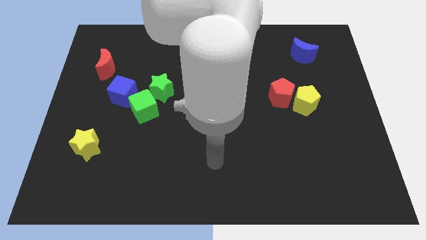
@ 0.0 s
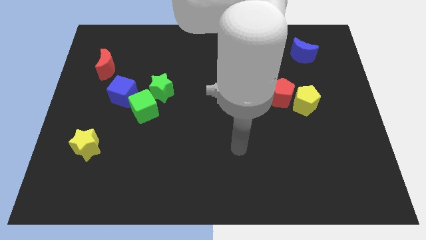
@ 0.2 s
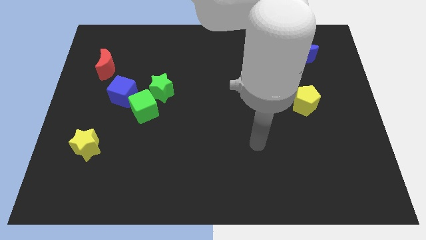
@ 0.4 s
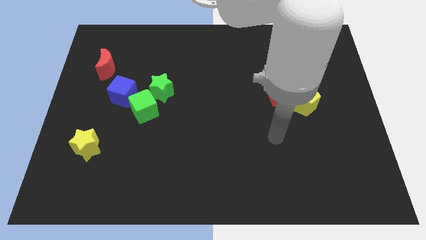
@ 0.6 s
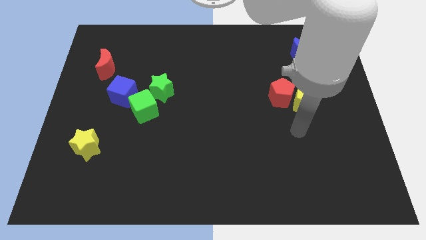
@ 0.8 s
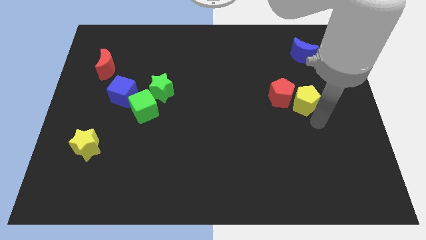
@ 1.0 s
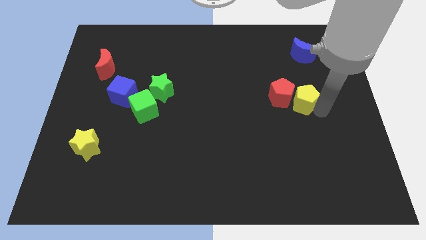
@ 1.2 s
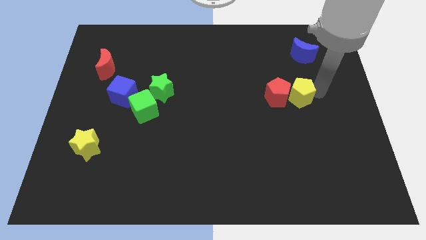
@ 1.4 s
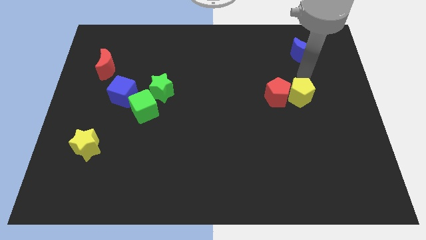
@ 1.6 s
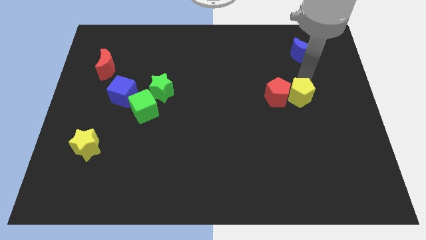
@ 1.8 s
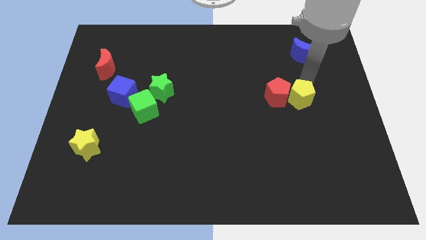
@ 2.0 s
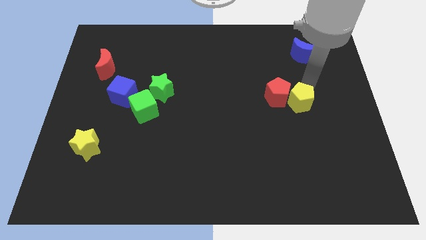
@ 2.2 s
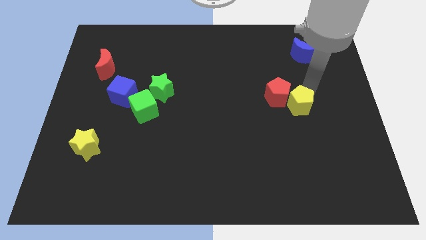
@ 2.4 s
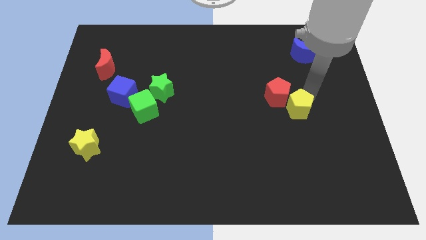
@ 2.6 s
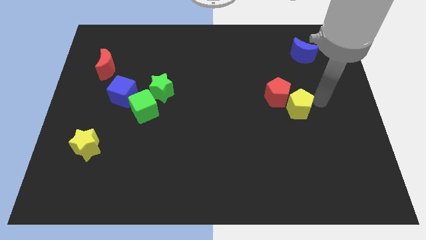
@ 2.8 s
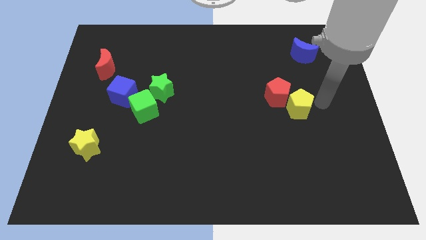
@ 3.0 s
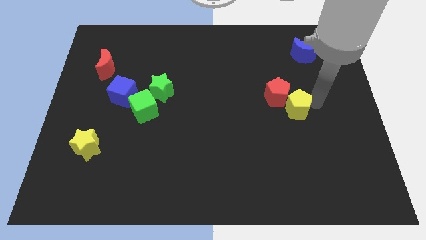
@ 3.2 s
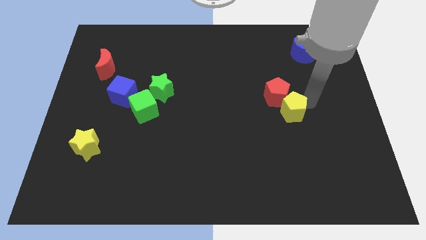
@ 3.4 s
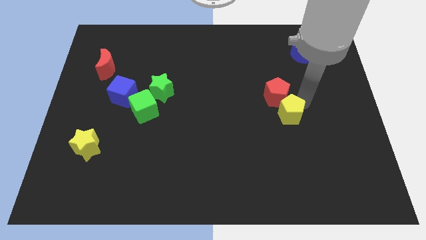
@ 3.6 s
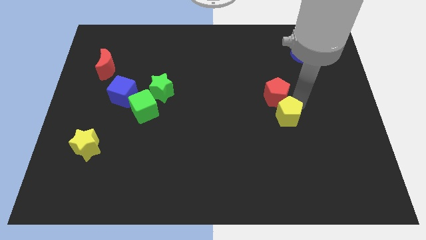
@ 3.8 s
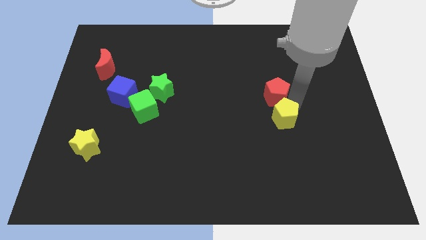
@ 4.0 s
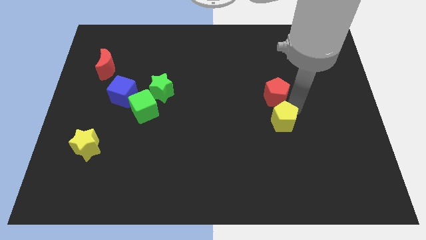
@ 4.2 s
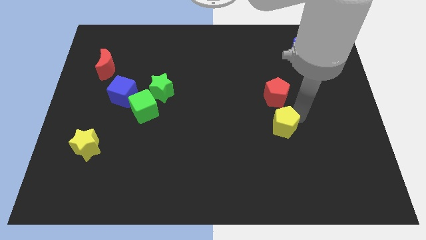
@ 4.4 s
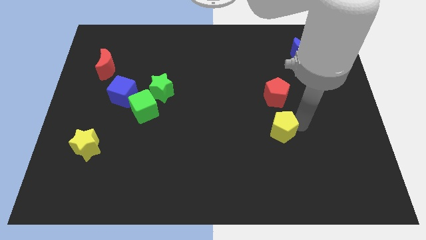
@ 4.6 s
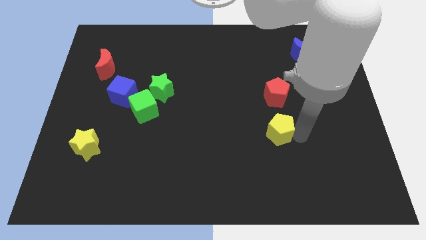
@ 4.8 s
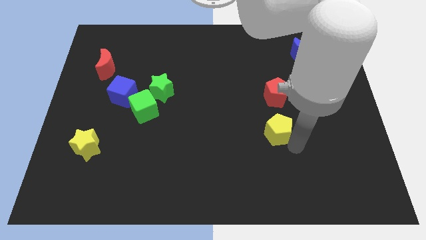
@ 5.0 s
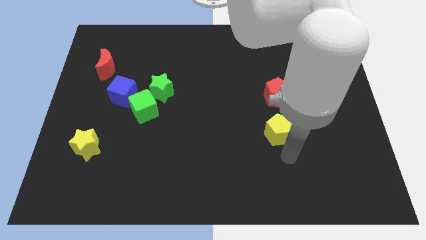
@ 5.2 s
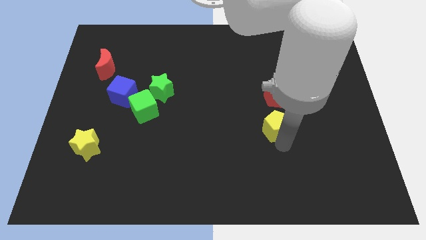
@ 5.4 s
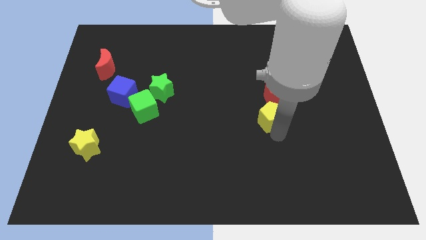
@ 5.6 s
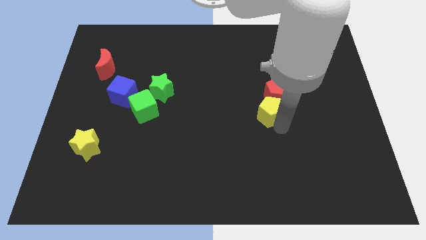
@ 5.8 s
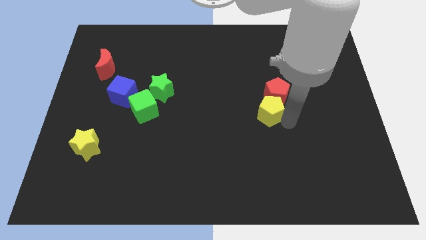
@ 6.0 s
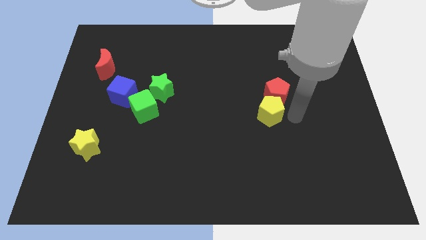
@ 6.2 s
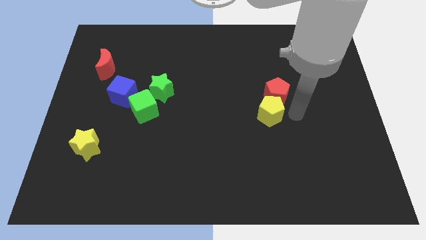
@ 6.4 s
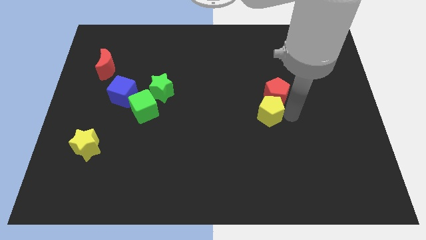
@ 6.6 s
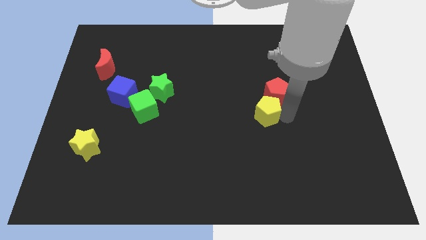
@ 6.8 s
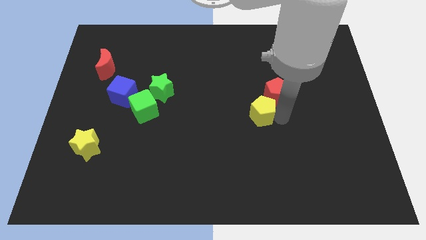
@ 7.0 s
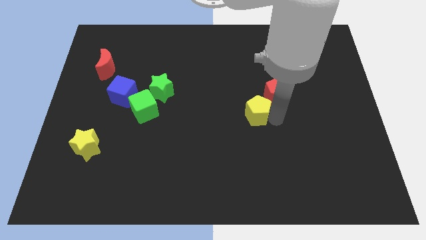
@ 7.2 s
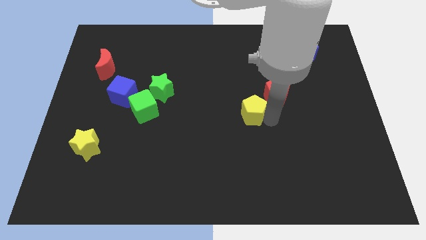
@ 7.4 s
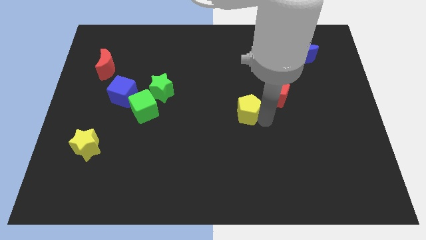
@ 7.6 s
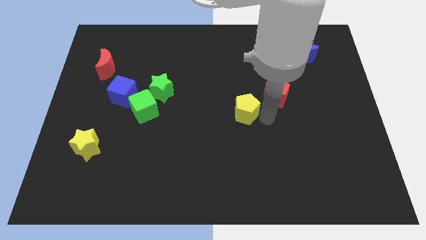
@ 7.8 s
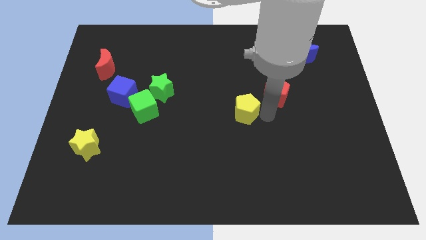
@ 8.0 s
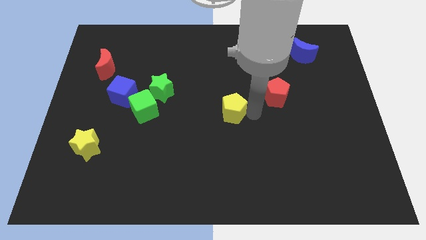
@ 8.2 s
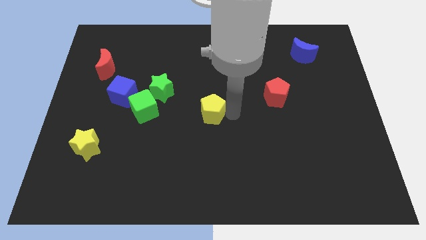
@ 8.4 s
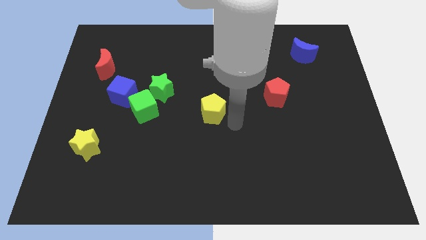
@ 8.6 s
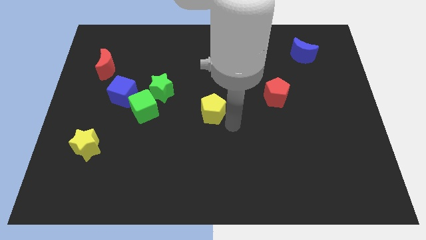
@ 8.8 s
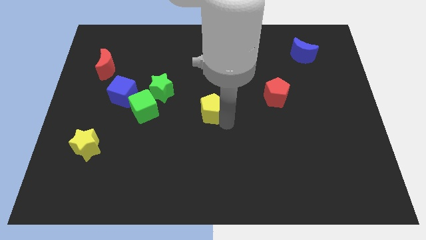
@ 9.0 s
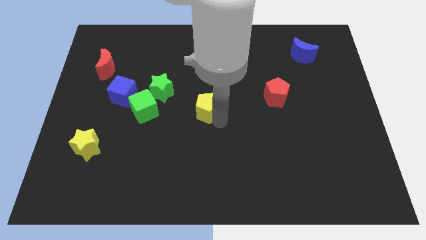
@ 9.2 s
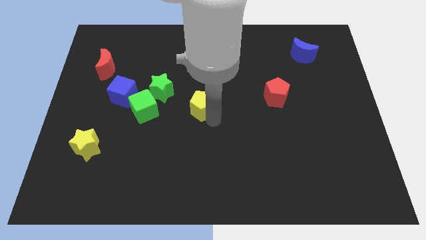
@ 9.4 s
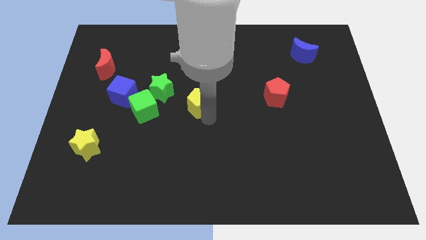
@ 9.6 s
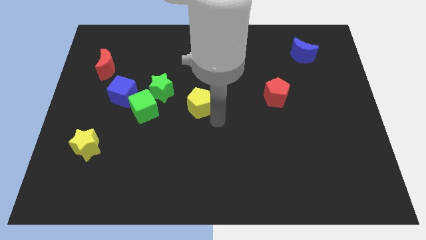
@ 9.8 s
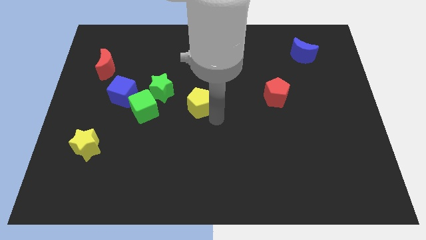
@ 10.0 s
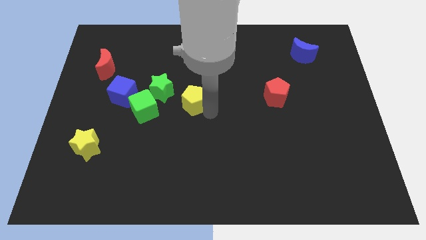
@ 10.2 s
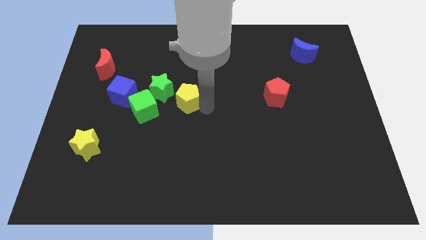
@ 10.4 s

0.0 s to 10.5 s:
slide the yellow pentagon just right of the blue cube

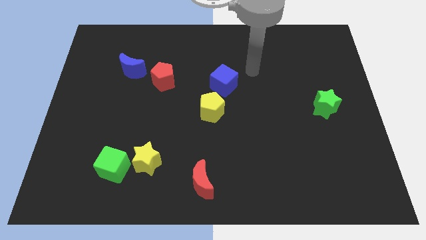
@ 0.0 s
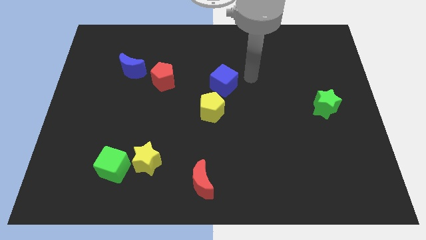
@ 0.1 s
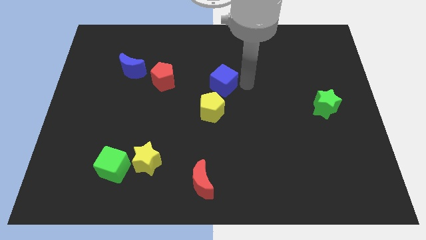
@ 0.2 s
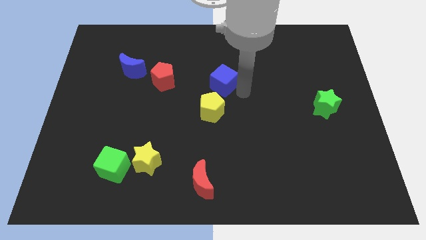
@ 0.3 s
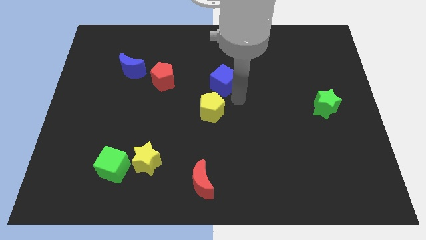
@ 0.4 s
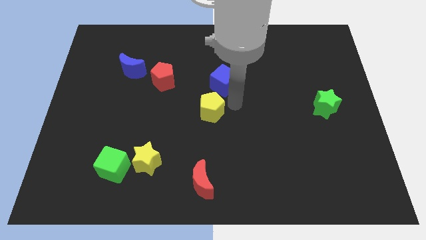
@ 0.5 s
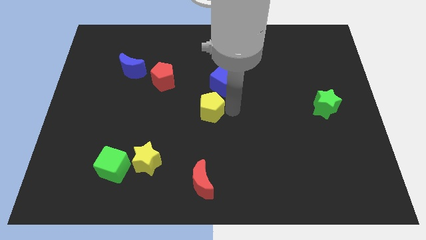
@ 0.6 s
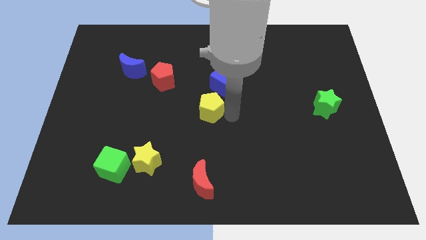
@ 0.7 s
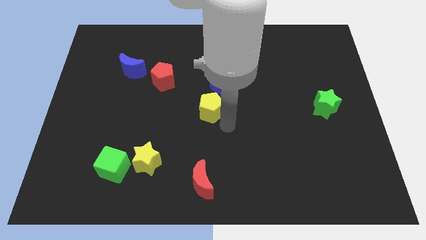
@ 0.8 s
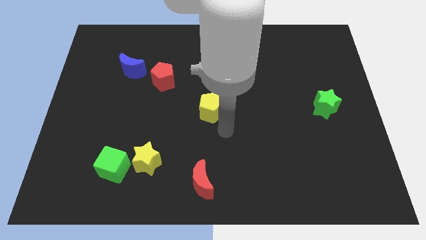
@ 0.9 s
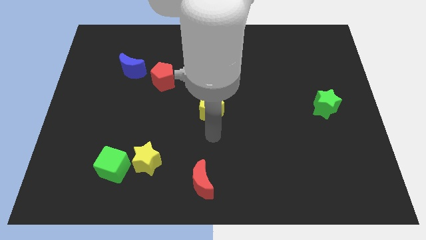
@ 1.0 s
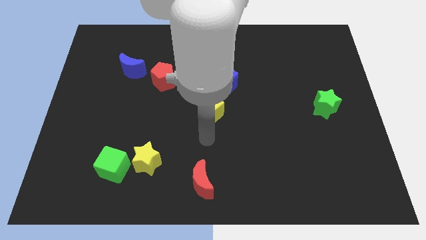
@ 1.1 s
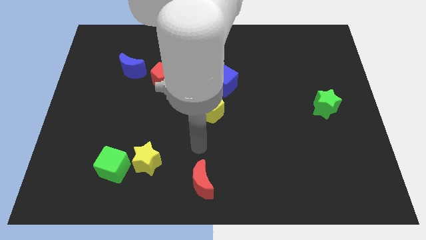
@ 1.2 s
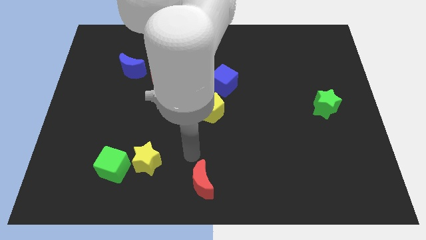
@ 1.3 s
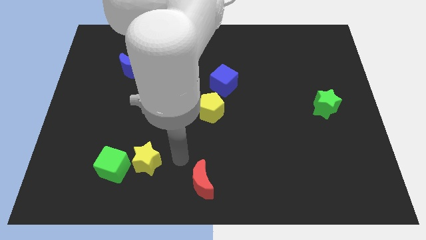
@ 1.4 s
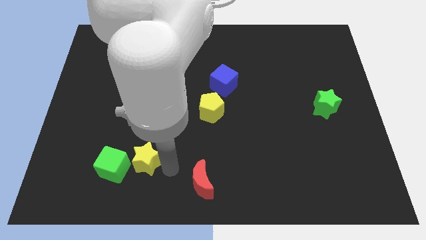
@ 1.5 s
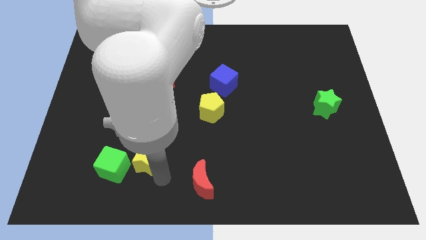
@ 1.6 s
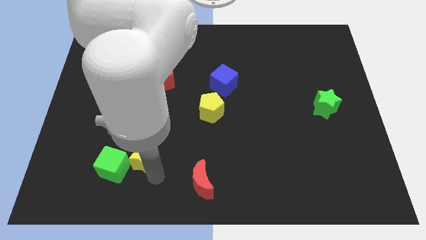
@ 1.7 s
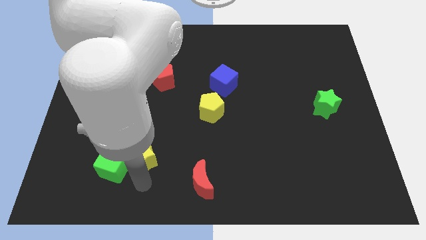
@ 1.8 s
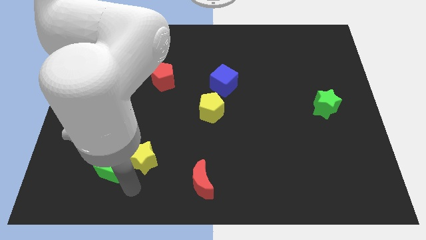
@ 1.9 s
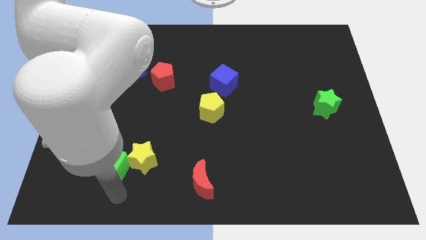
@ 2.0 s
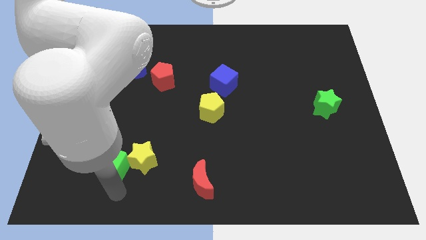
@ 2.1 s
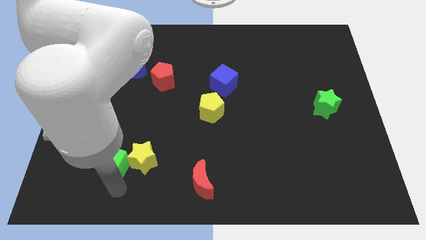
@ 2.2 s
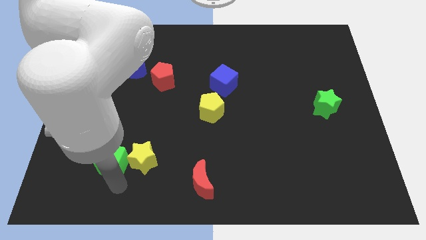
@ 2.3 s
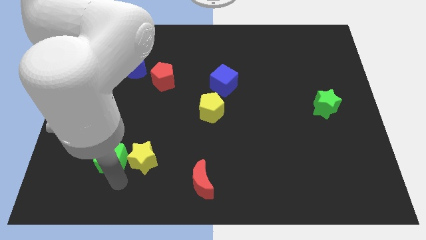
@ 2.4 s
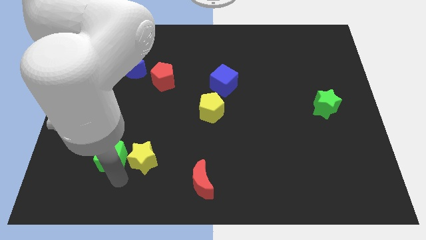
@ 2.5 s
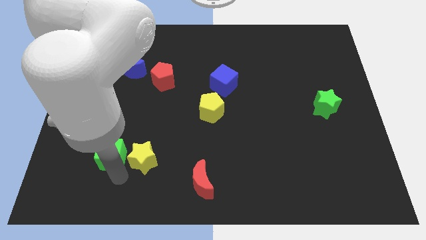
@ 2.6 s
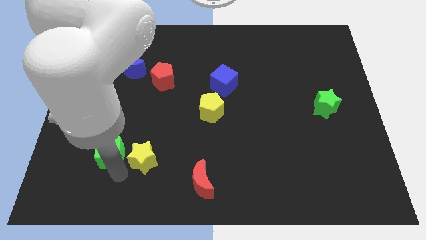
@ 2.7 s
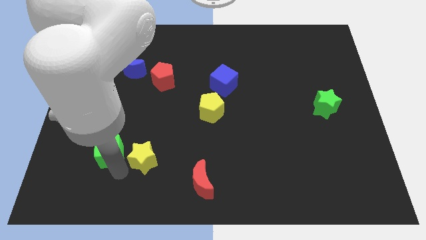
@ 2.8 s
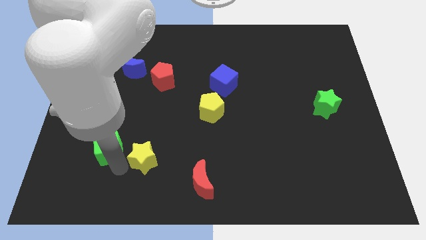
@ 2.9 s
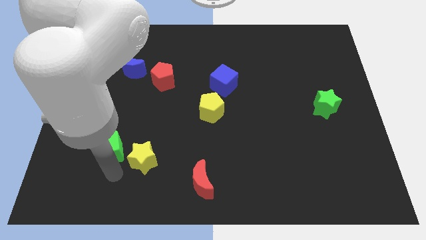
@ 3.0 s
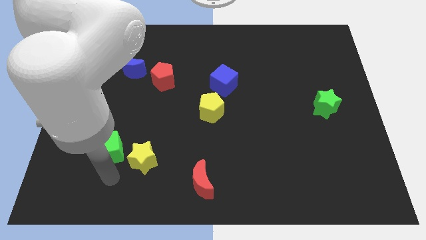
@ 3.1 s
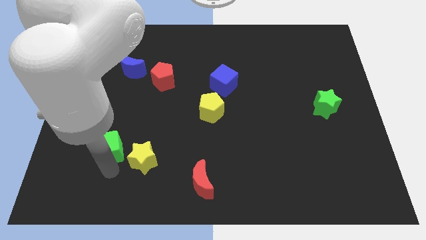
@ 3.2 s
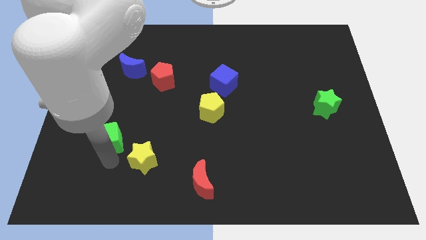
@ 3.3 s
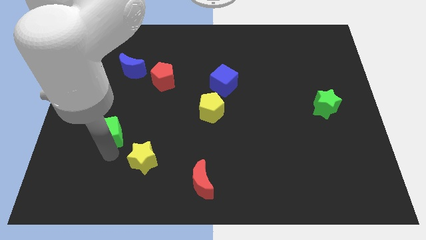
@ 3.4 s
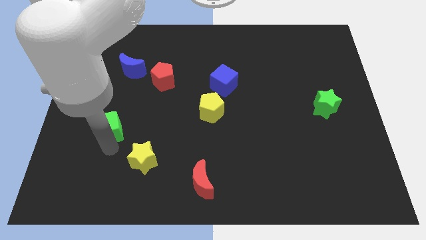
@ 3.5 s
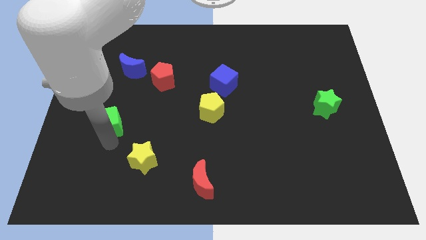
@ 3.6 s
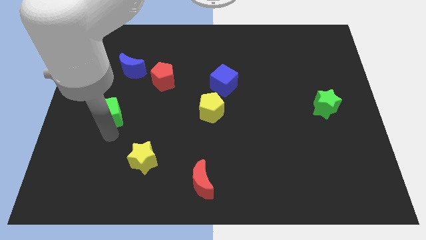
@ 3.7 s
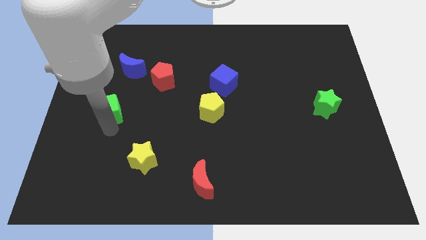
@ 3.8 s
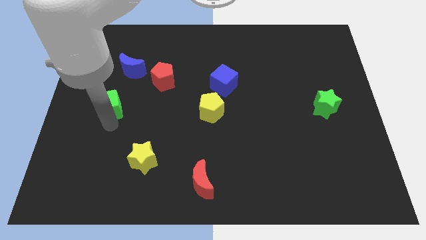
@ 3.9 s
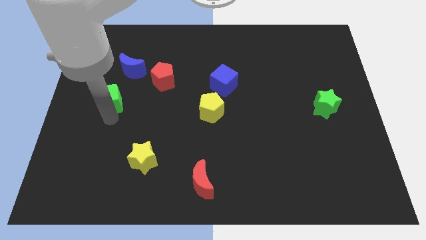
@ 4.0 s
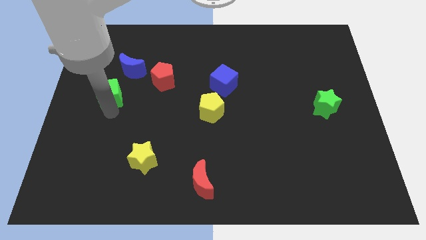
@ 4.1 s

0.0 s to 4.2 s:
put the green cube to the bottom left of the blue moon
